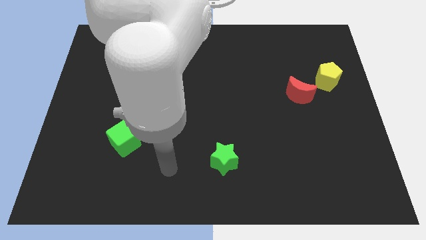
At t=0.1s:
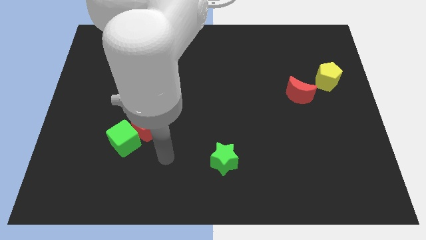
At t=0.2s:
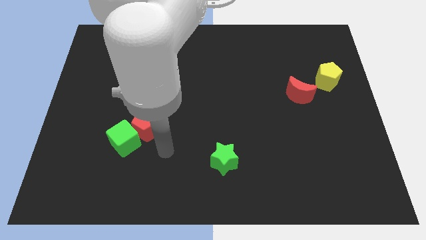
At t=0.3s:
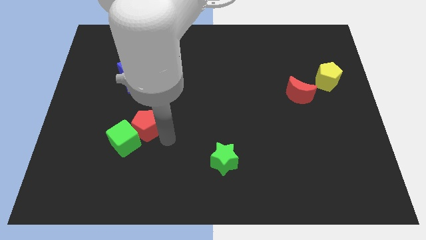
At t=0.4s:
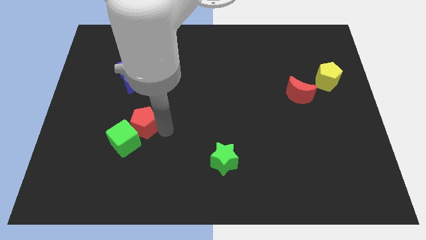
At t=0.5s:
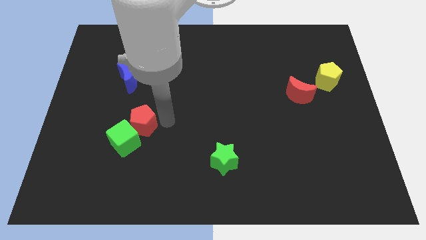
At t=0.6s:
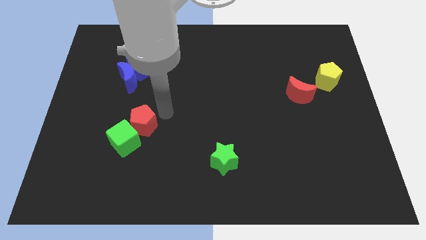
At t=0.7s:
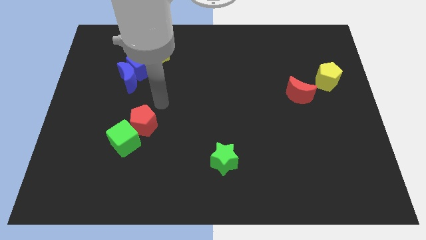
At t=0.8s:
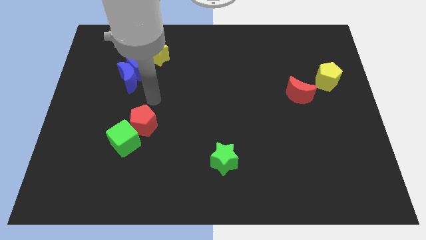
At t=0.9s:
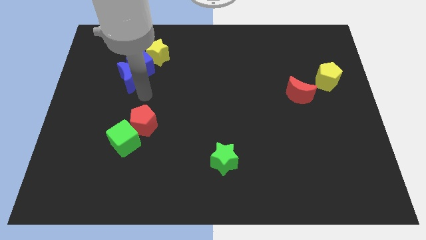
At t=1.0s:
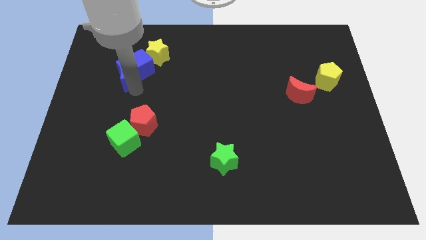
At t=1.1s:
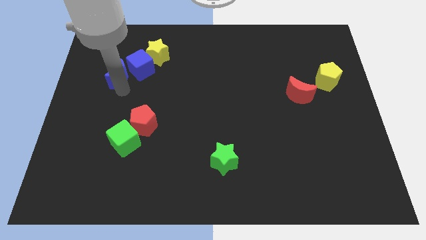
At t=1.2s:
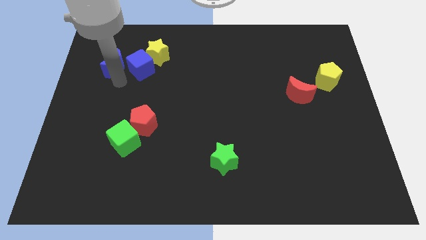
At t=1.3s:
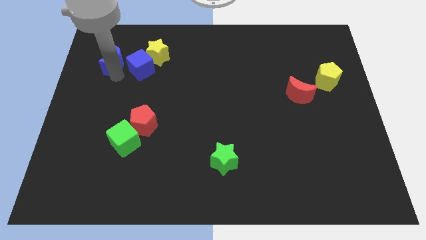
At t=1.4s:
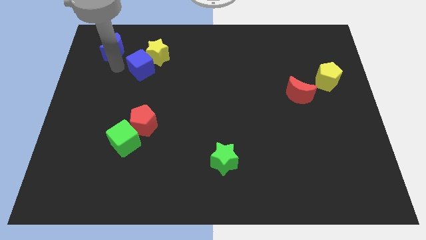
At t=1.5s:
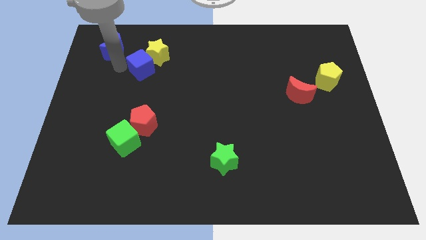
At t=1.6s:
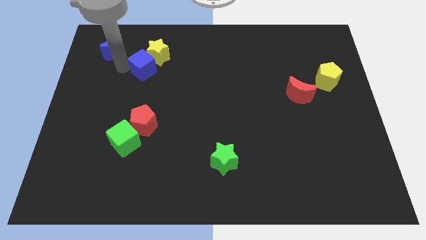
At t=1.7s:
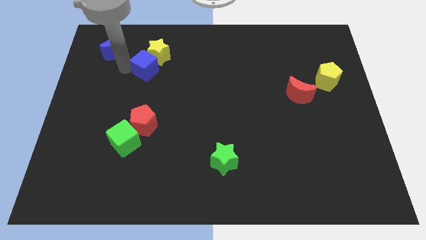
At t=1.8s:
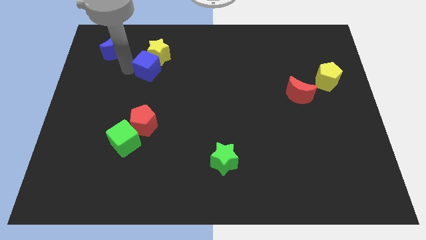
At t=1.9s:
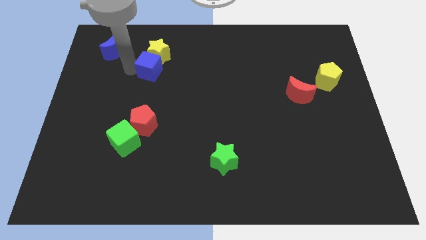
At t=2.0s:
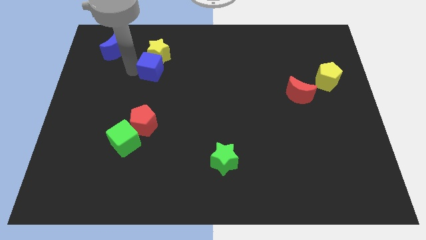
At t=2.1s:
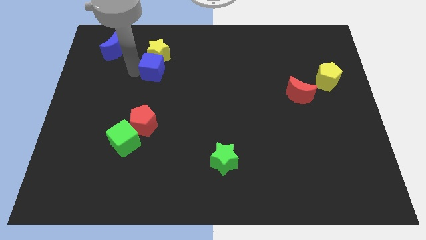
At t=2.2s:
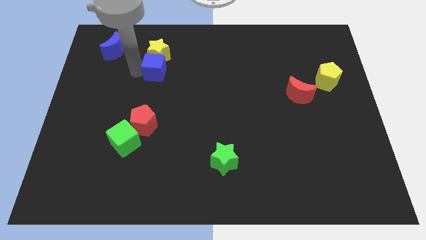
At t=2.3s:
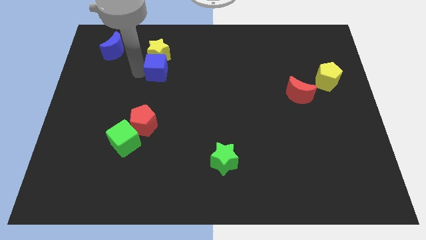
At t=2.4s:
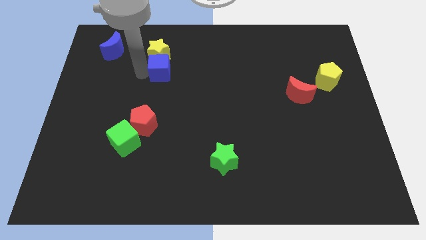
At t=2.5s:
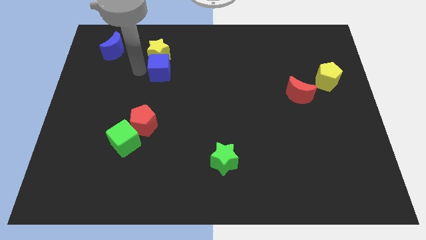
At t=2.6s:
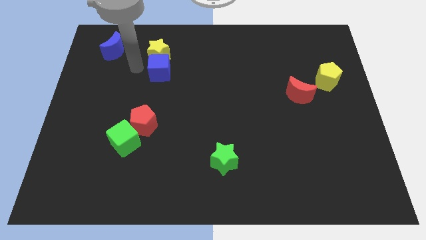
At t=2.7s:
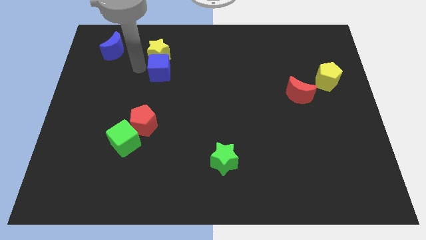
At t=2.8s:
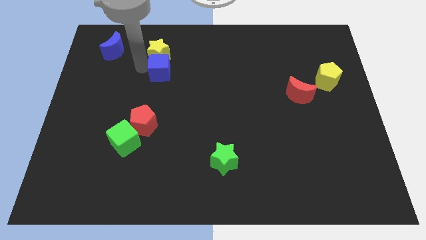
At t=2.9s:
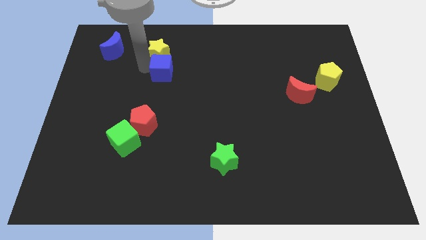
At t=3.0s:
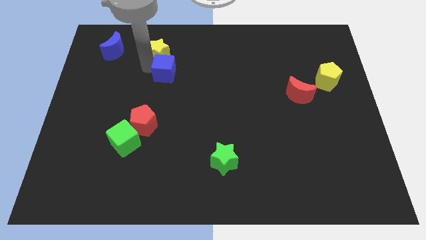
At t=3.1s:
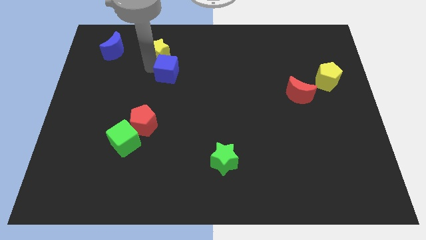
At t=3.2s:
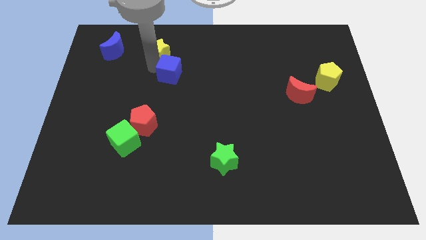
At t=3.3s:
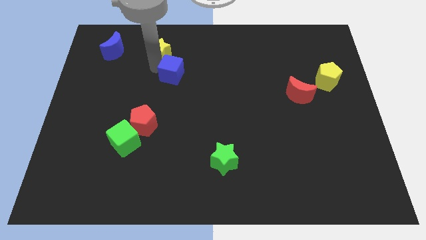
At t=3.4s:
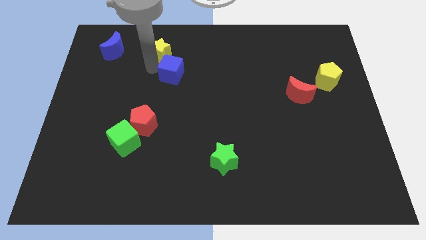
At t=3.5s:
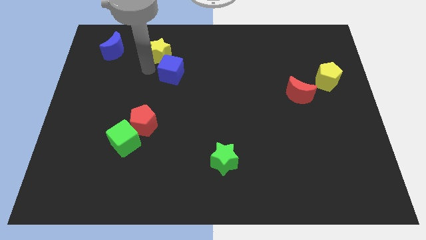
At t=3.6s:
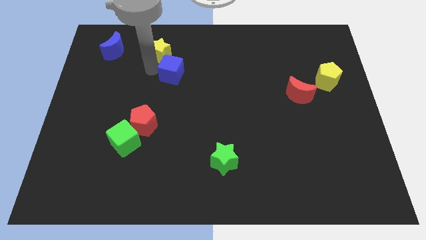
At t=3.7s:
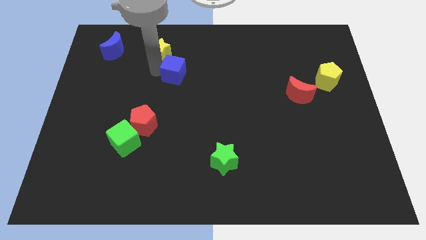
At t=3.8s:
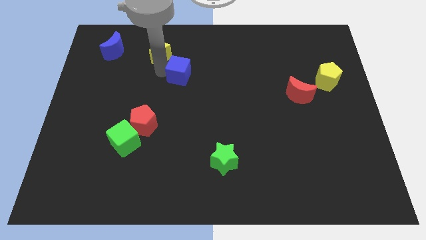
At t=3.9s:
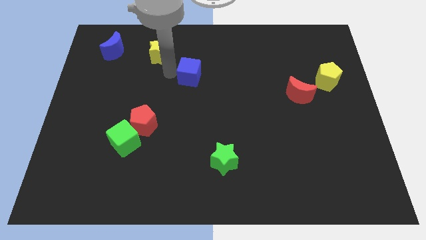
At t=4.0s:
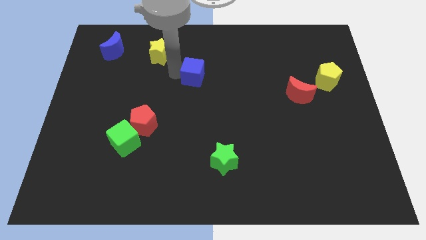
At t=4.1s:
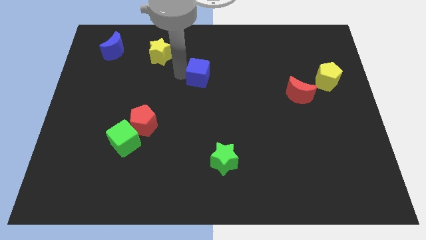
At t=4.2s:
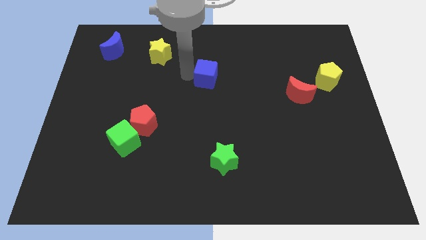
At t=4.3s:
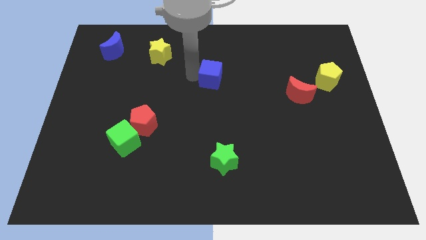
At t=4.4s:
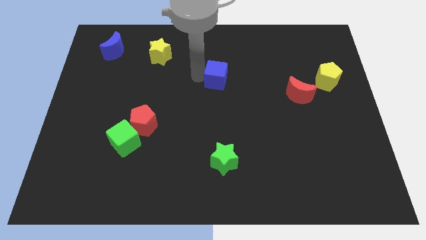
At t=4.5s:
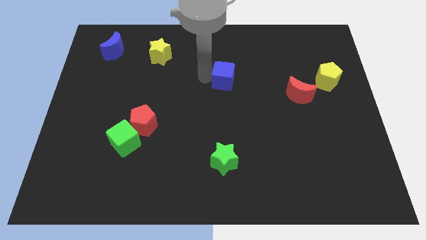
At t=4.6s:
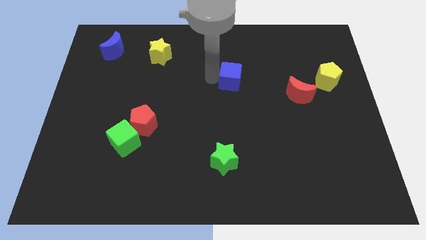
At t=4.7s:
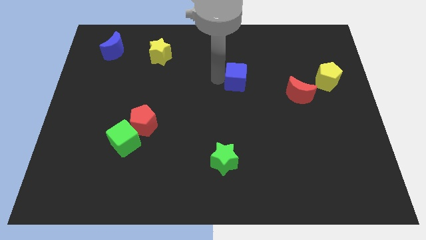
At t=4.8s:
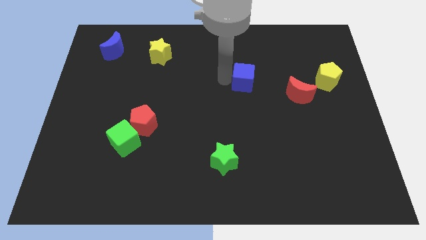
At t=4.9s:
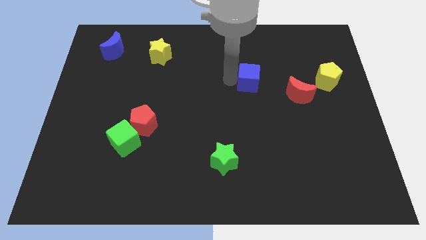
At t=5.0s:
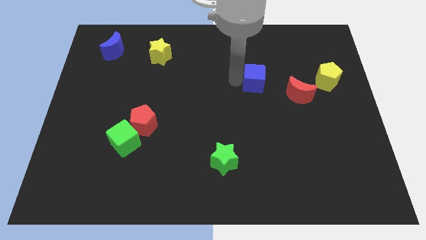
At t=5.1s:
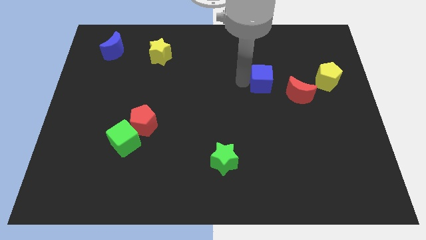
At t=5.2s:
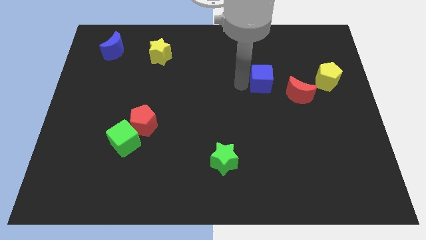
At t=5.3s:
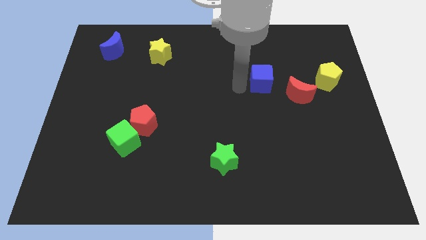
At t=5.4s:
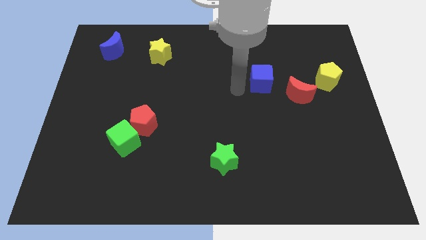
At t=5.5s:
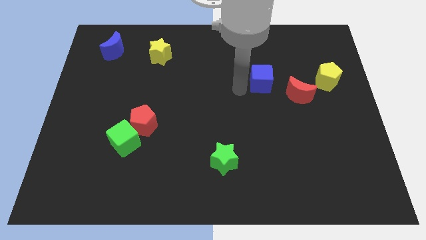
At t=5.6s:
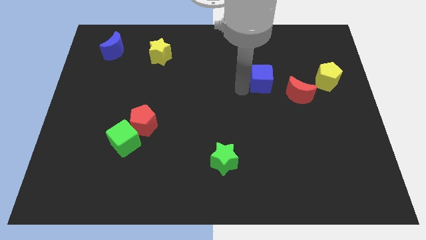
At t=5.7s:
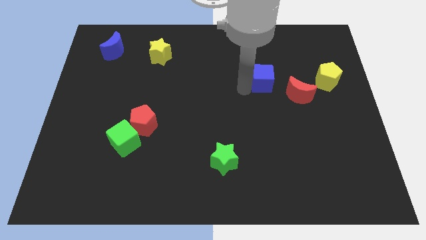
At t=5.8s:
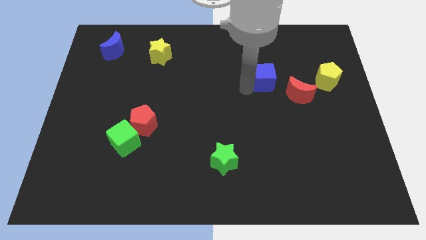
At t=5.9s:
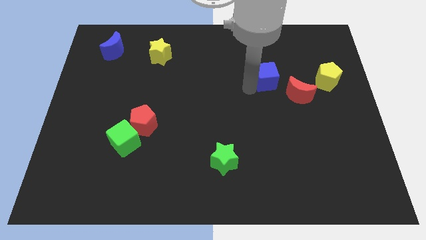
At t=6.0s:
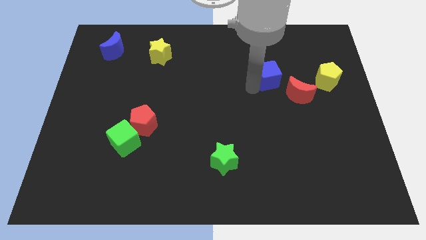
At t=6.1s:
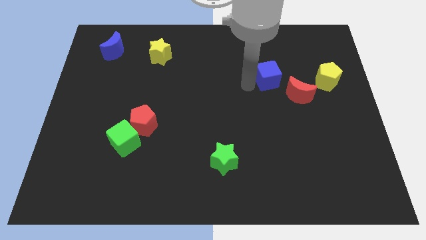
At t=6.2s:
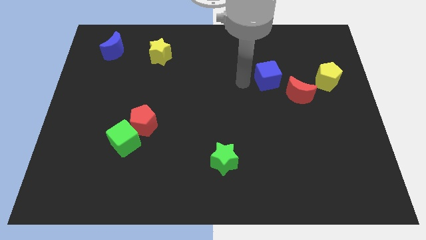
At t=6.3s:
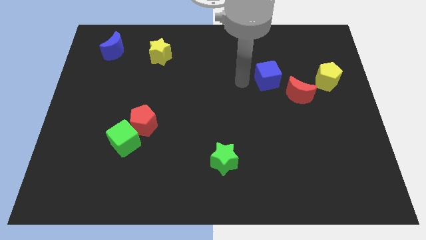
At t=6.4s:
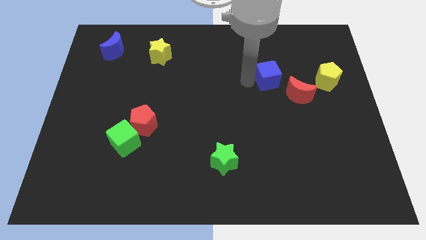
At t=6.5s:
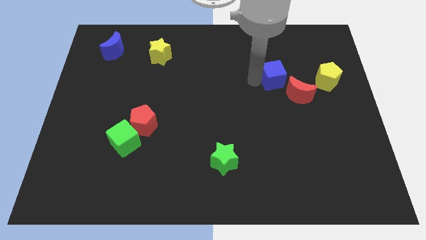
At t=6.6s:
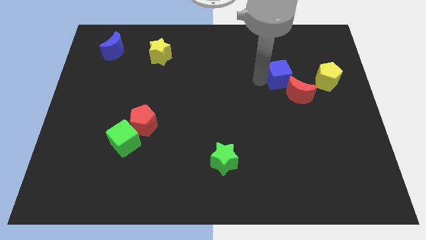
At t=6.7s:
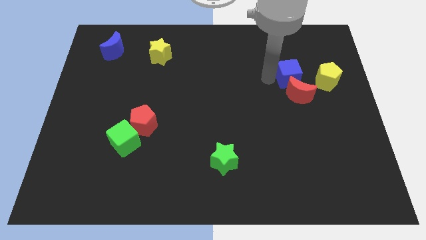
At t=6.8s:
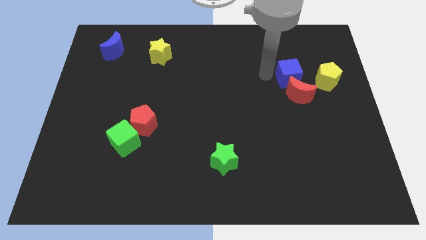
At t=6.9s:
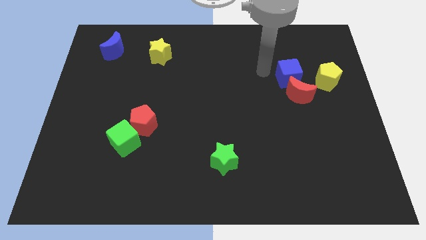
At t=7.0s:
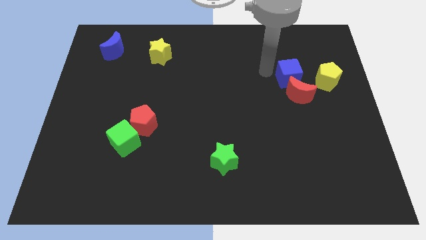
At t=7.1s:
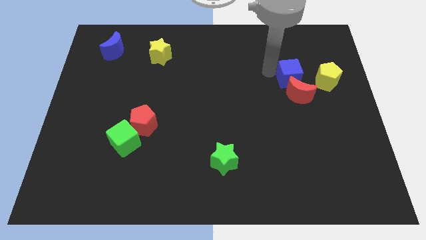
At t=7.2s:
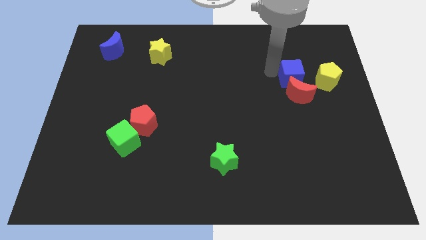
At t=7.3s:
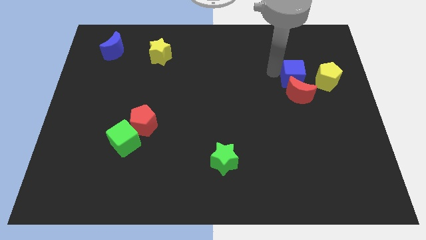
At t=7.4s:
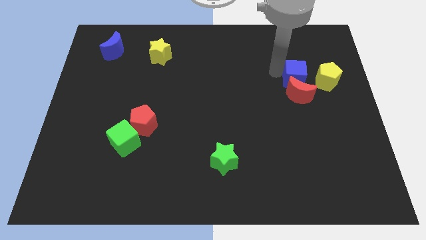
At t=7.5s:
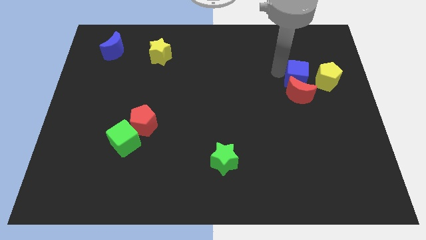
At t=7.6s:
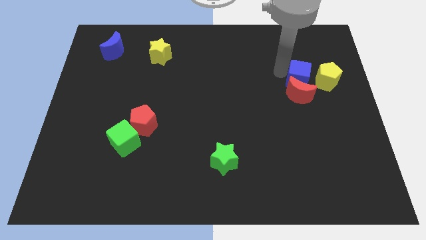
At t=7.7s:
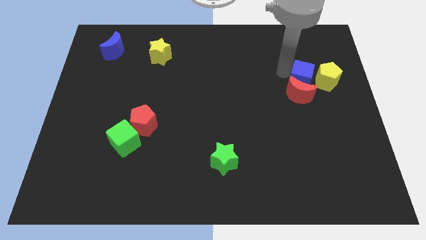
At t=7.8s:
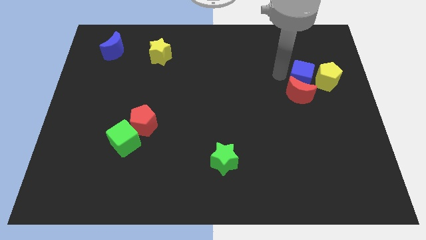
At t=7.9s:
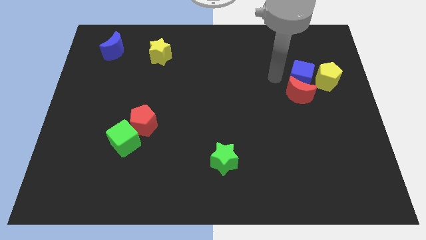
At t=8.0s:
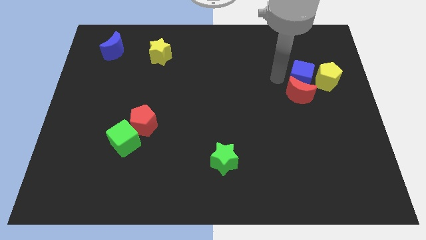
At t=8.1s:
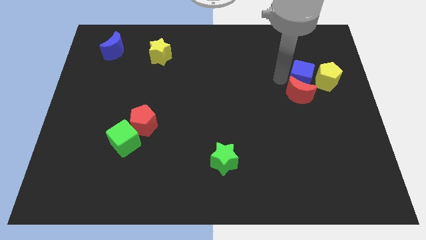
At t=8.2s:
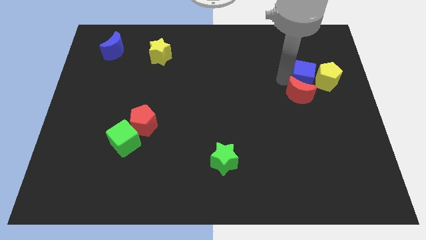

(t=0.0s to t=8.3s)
put the blue cube next to the yellow pentagon
